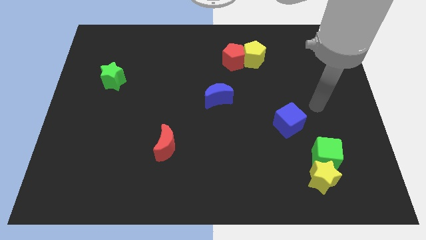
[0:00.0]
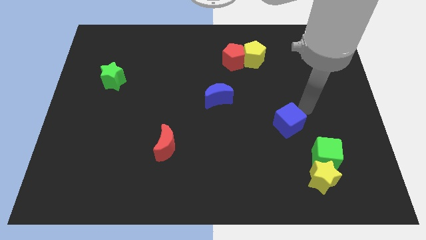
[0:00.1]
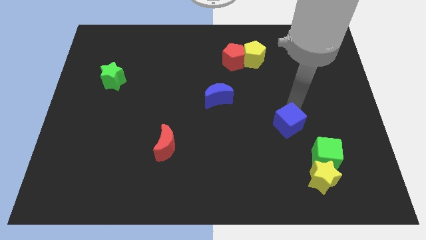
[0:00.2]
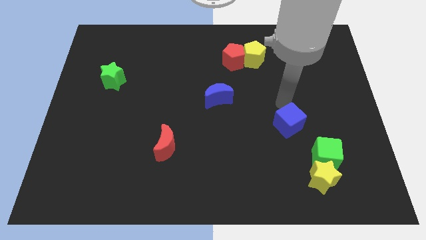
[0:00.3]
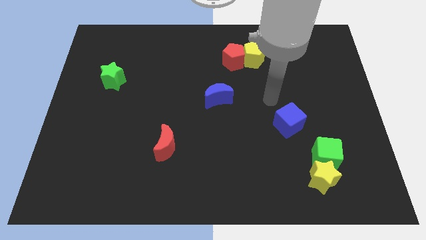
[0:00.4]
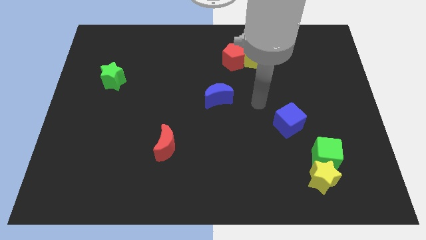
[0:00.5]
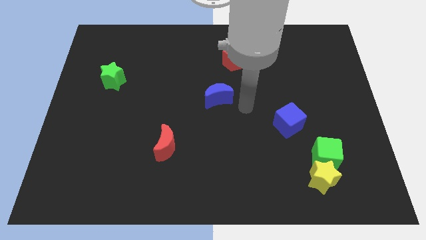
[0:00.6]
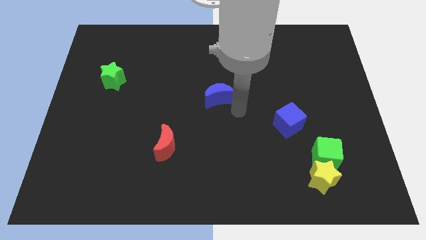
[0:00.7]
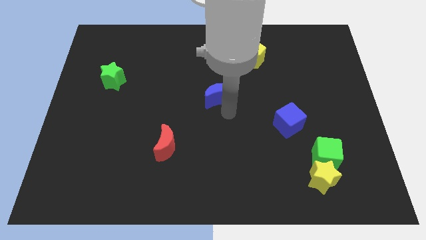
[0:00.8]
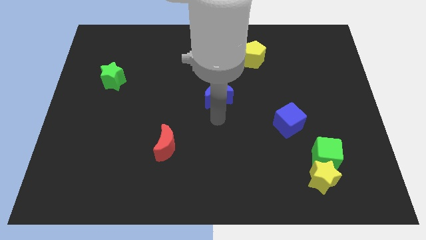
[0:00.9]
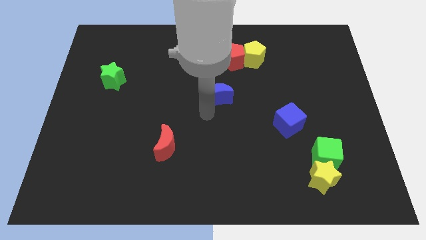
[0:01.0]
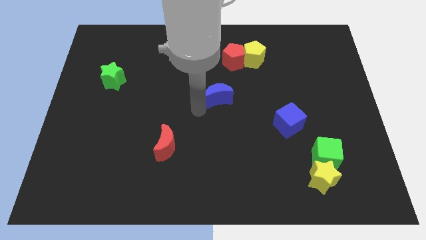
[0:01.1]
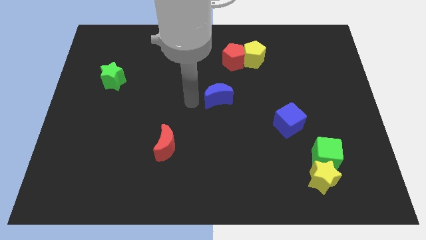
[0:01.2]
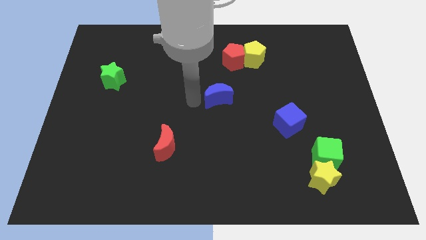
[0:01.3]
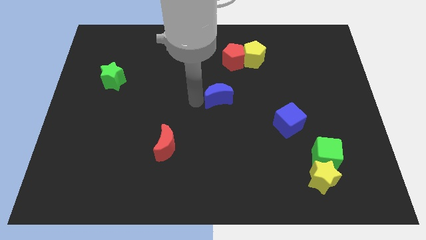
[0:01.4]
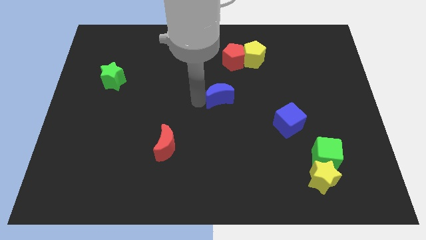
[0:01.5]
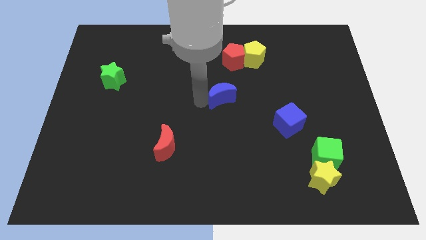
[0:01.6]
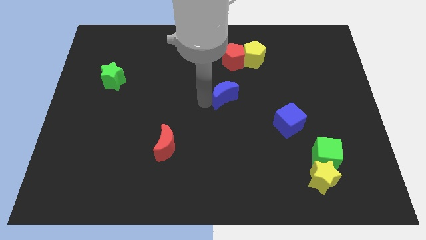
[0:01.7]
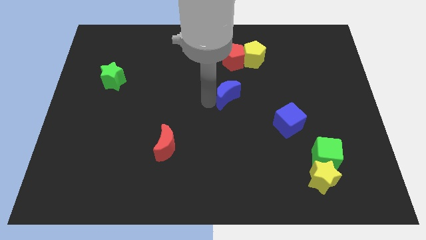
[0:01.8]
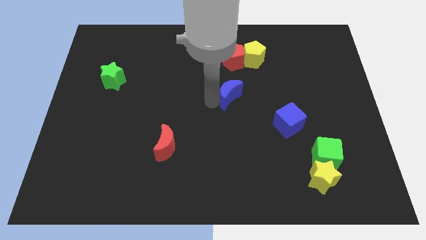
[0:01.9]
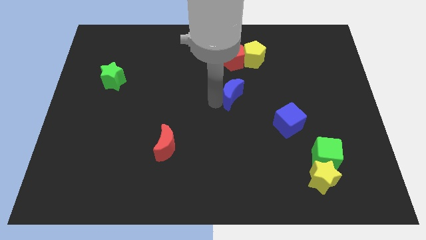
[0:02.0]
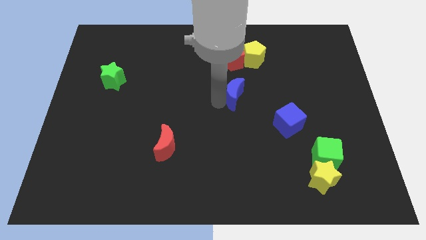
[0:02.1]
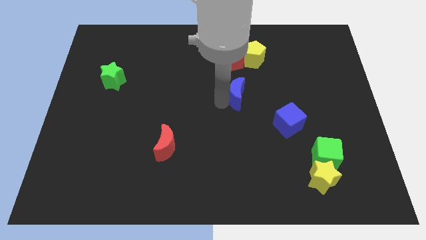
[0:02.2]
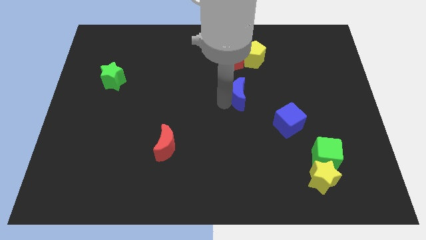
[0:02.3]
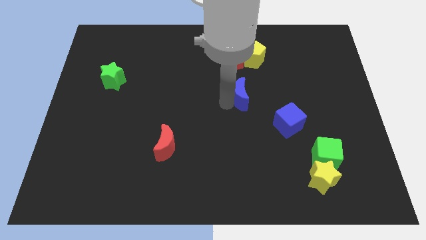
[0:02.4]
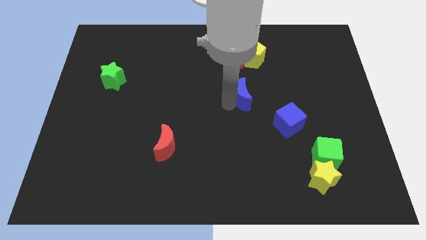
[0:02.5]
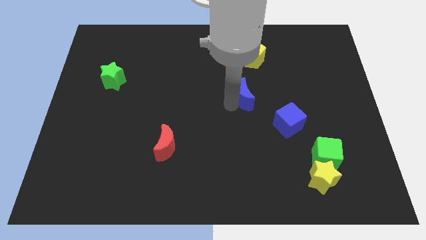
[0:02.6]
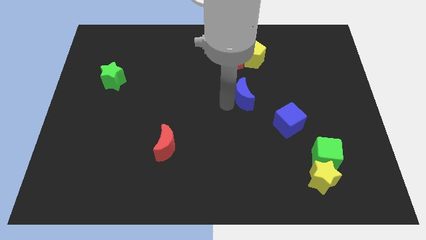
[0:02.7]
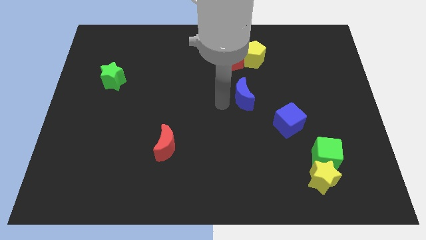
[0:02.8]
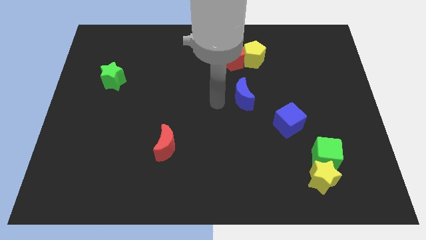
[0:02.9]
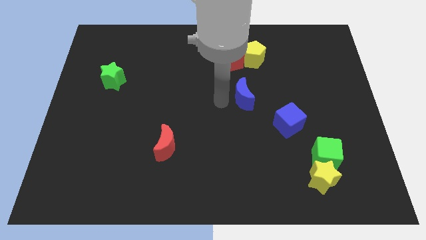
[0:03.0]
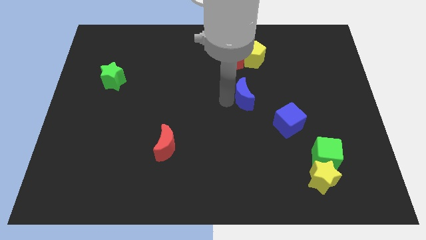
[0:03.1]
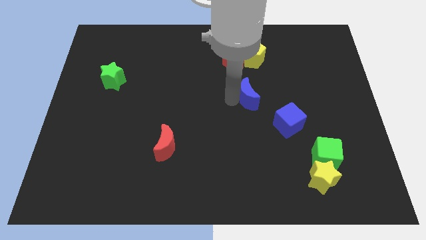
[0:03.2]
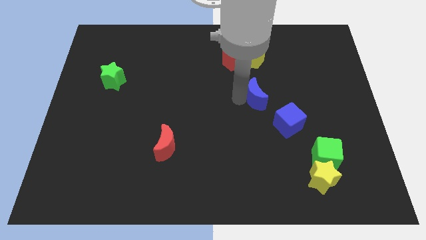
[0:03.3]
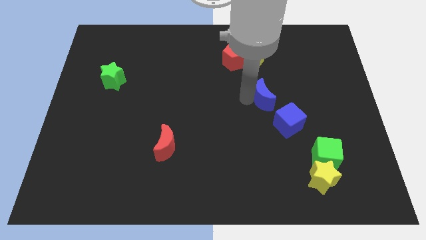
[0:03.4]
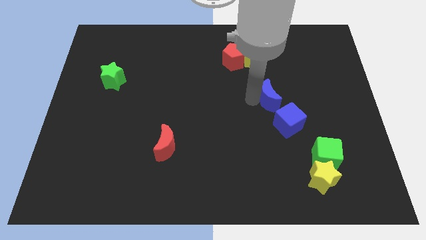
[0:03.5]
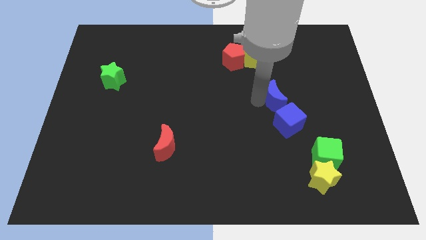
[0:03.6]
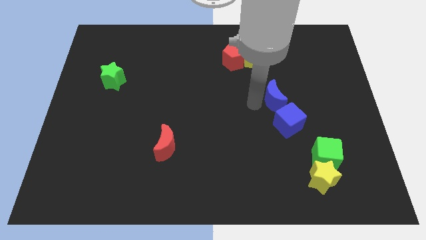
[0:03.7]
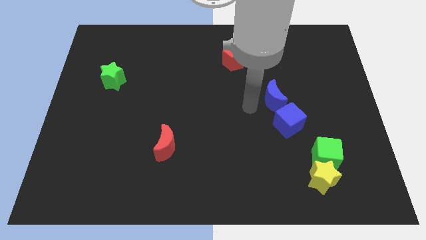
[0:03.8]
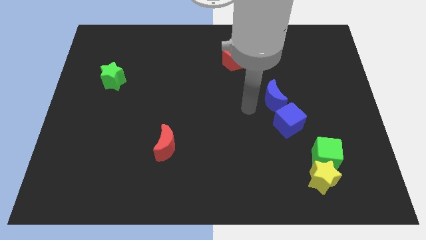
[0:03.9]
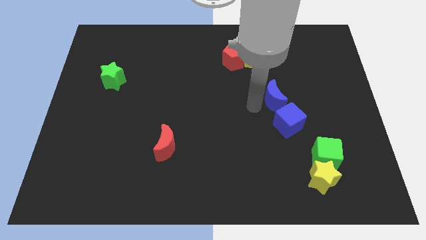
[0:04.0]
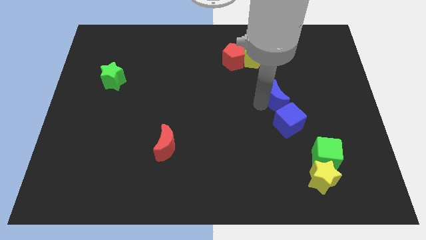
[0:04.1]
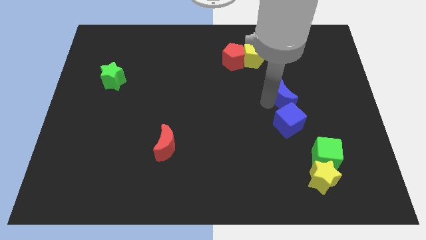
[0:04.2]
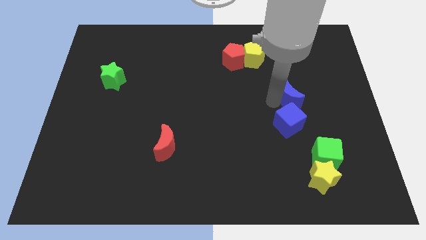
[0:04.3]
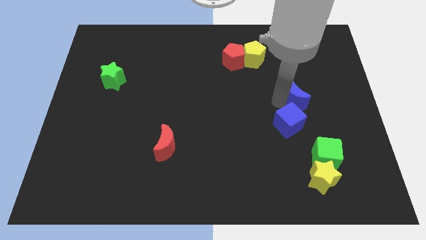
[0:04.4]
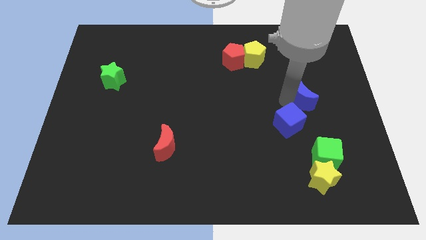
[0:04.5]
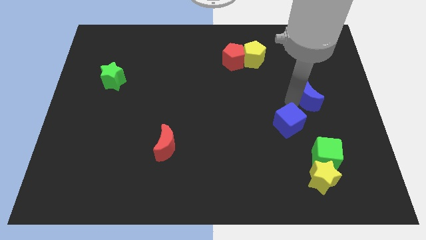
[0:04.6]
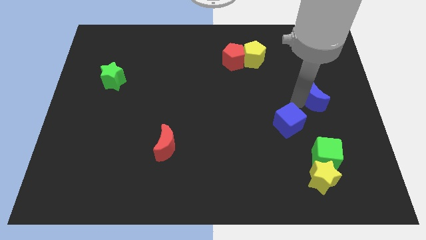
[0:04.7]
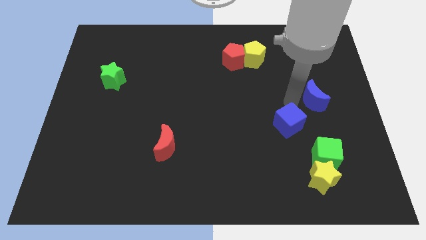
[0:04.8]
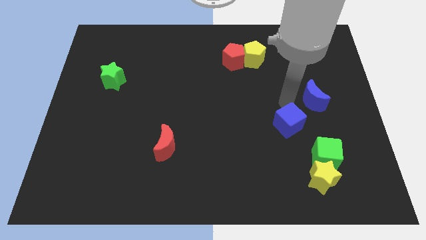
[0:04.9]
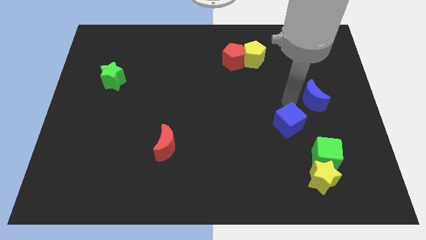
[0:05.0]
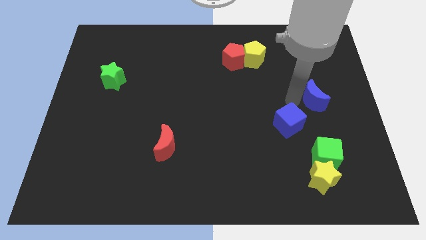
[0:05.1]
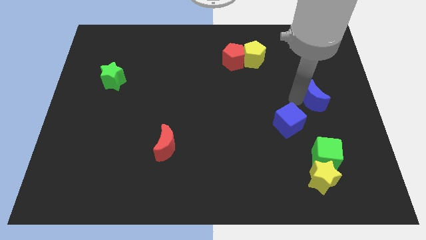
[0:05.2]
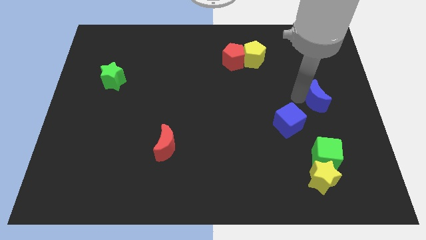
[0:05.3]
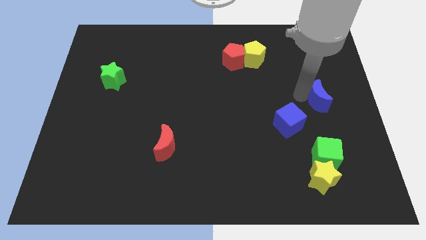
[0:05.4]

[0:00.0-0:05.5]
slide the blue moon to the right side of the board

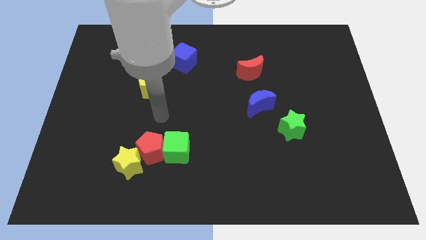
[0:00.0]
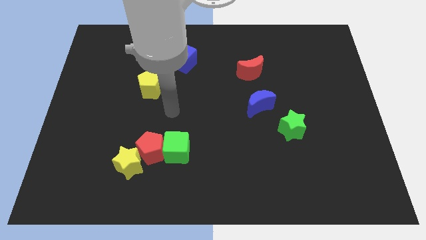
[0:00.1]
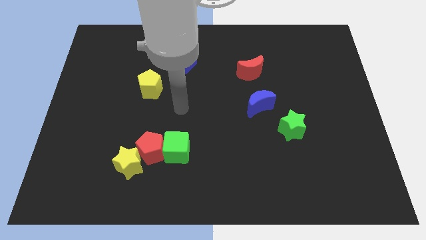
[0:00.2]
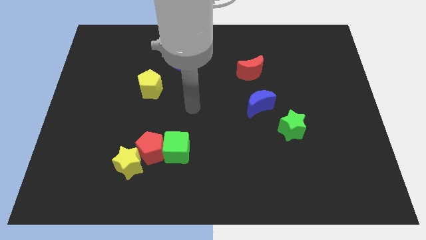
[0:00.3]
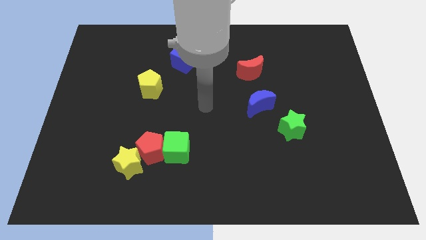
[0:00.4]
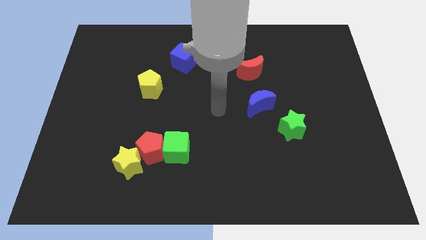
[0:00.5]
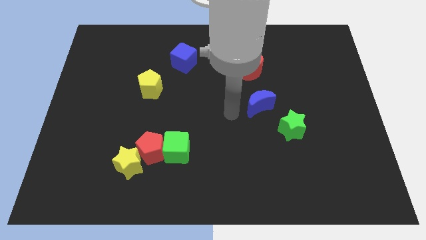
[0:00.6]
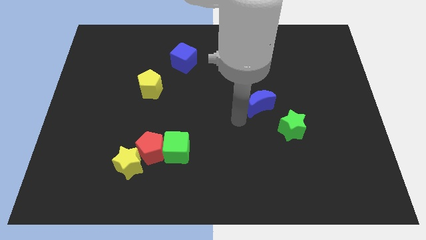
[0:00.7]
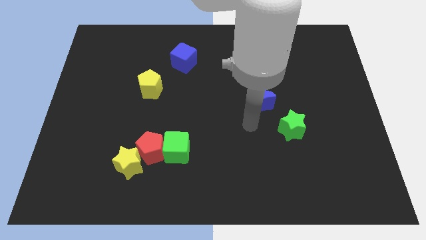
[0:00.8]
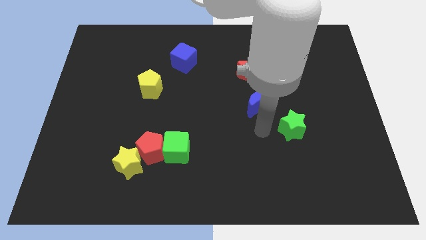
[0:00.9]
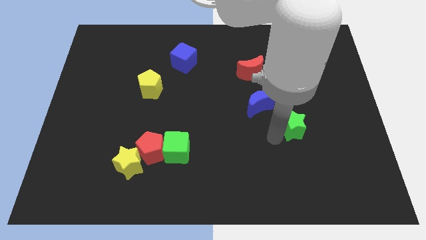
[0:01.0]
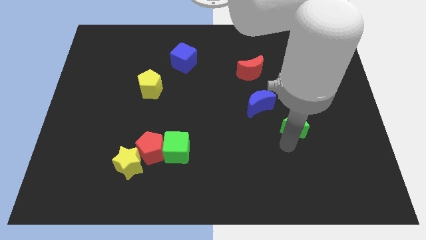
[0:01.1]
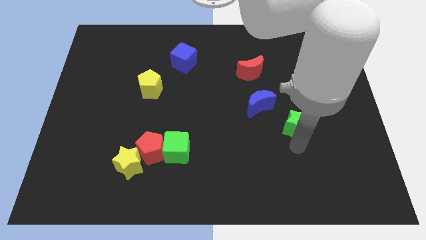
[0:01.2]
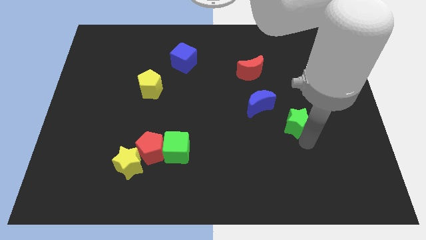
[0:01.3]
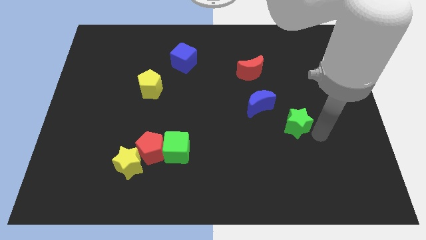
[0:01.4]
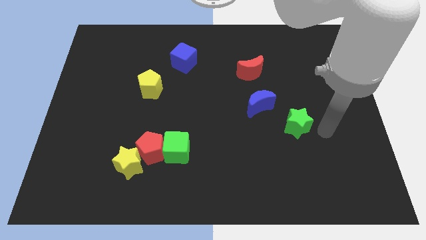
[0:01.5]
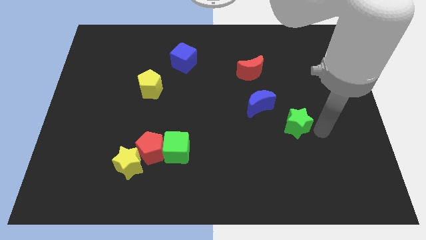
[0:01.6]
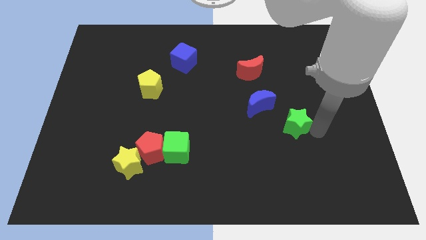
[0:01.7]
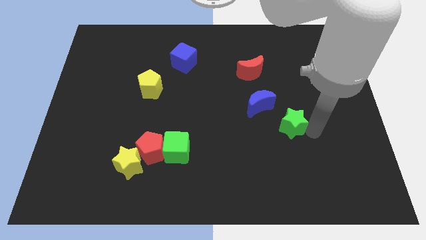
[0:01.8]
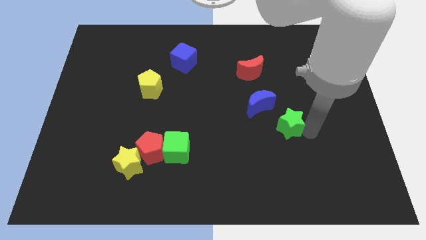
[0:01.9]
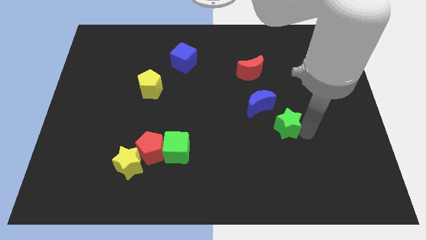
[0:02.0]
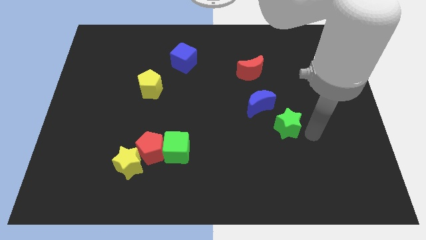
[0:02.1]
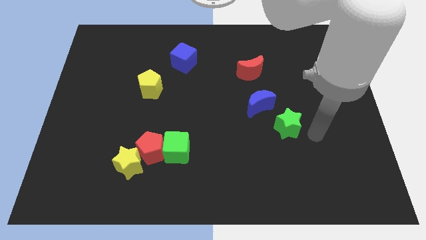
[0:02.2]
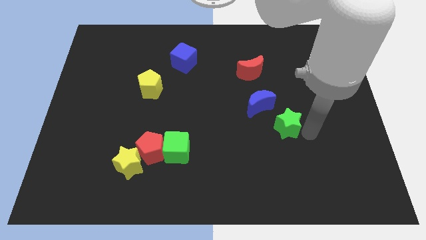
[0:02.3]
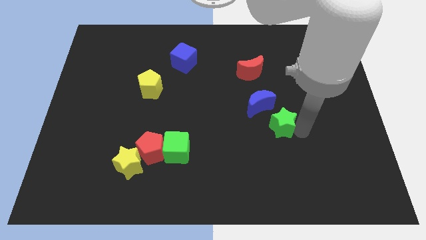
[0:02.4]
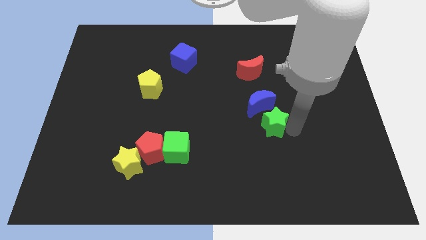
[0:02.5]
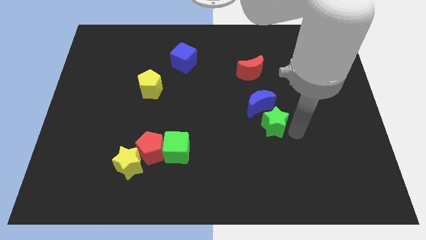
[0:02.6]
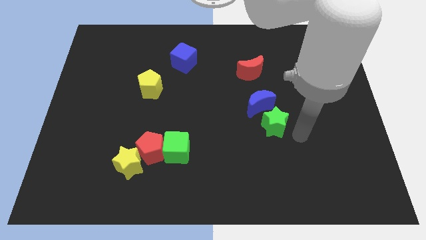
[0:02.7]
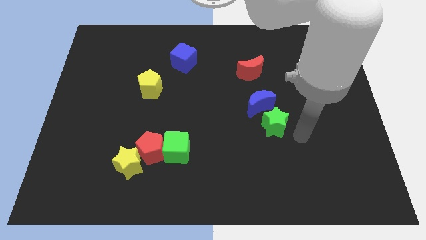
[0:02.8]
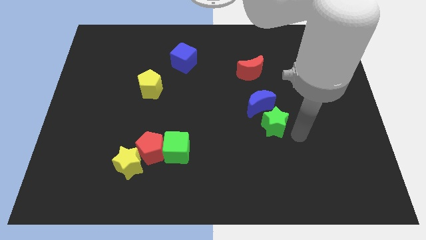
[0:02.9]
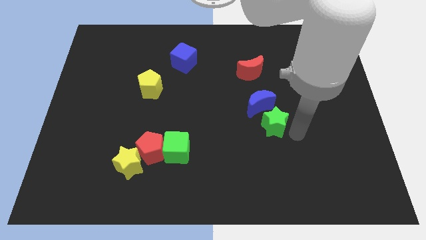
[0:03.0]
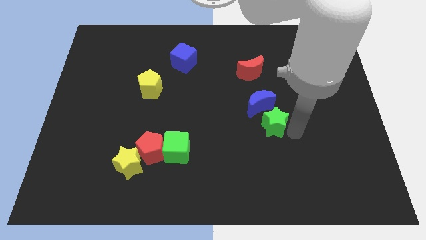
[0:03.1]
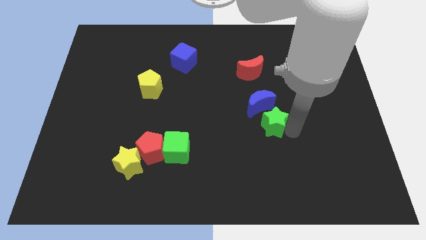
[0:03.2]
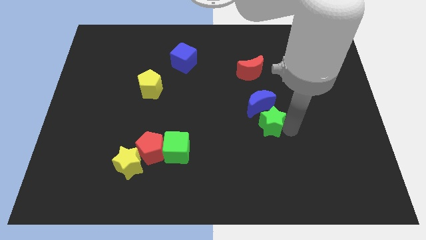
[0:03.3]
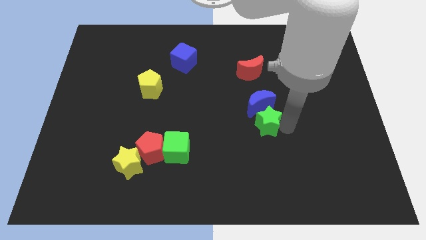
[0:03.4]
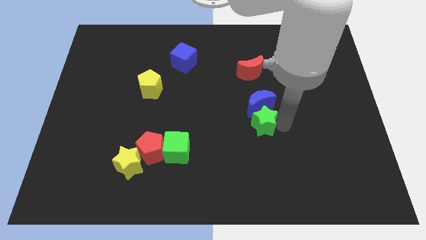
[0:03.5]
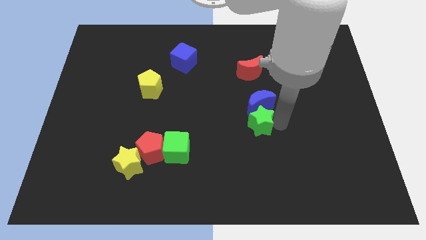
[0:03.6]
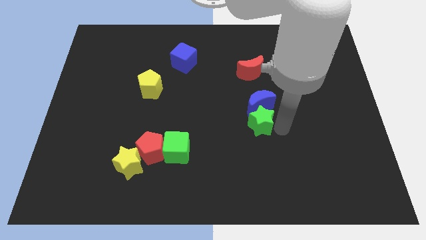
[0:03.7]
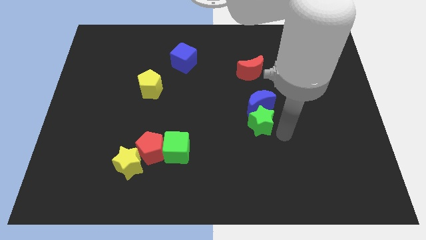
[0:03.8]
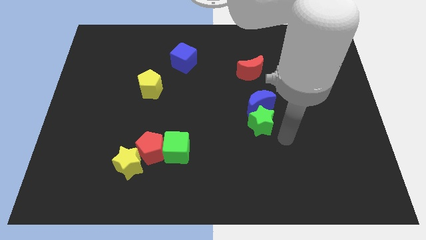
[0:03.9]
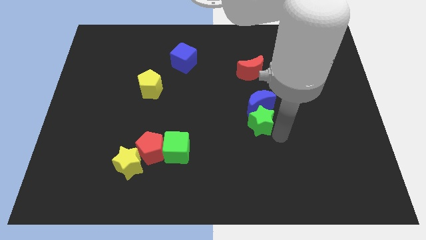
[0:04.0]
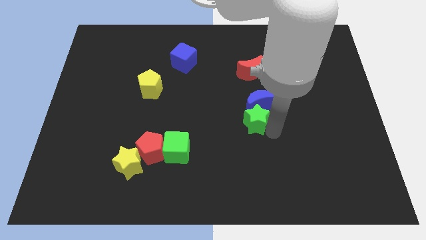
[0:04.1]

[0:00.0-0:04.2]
slide the green star to the middle
